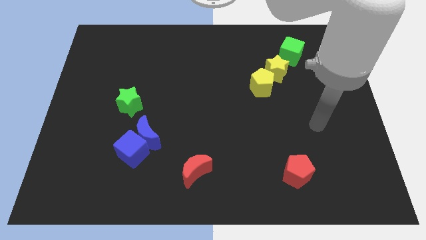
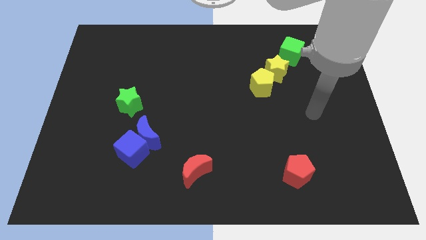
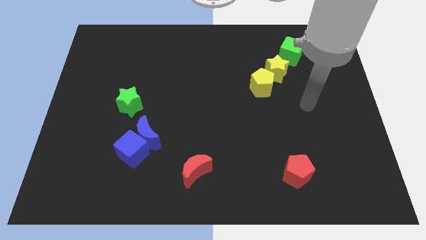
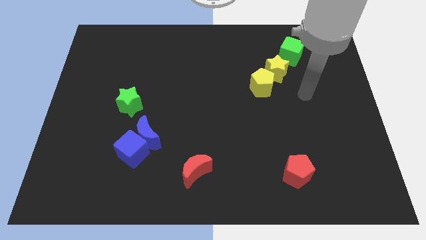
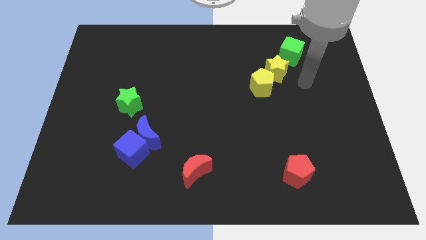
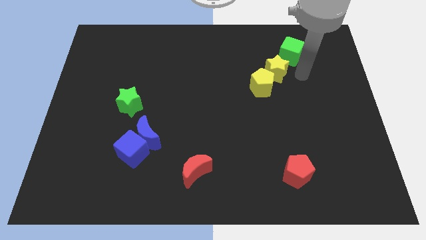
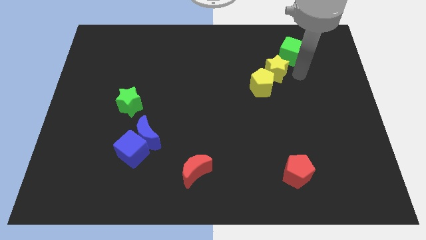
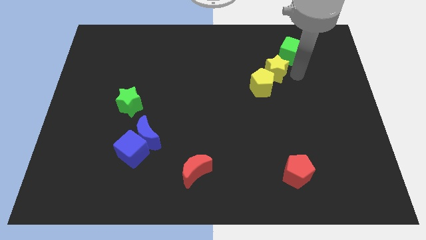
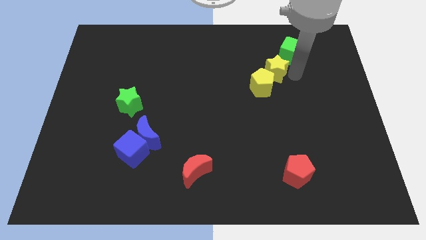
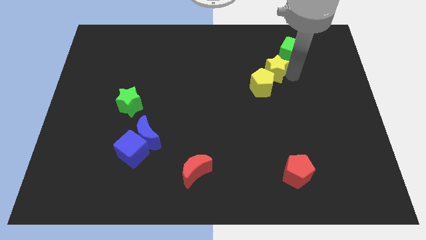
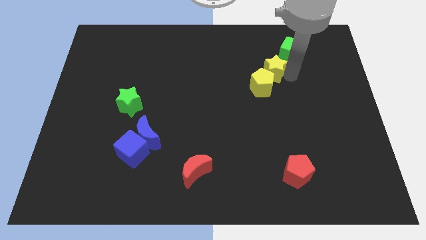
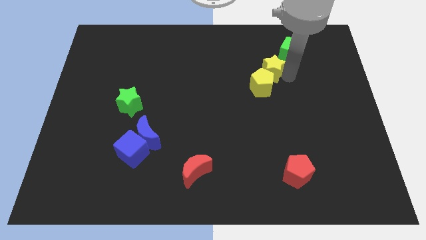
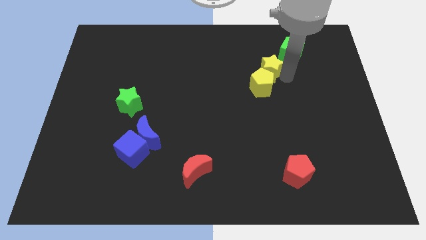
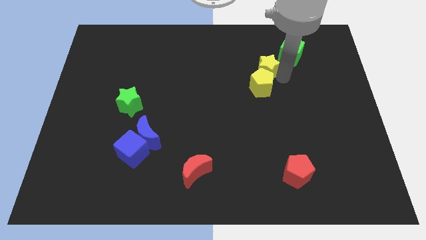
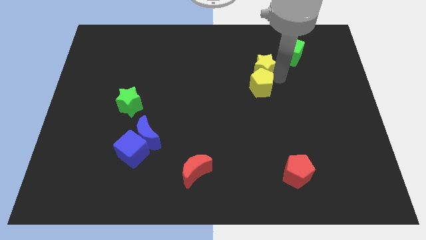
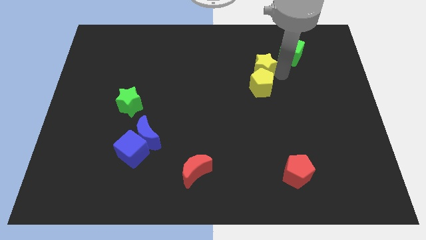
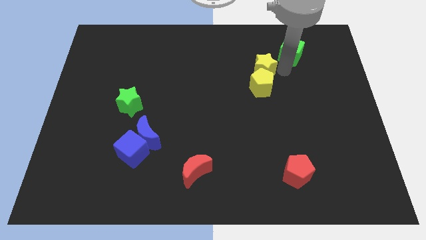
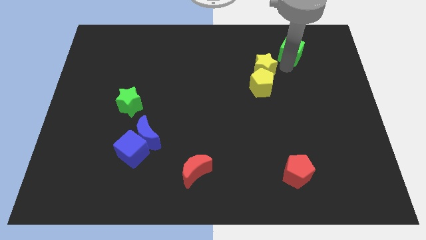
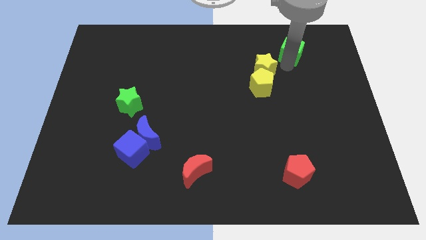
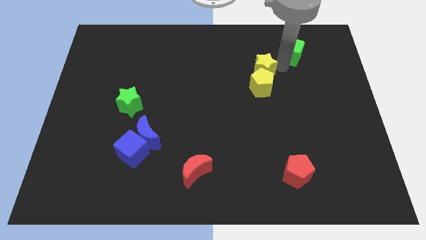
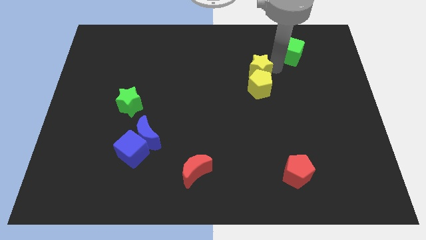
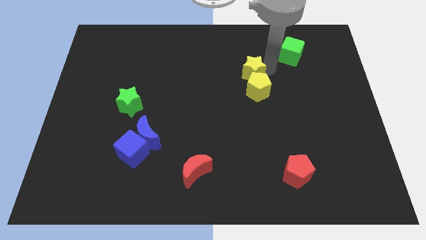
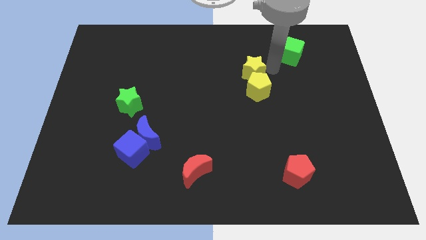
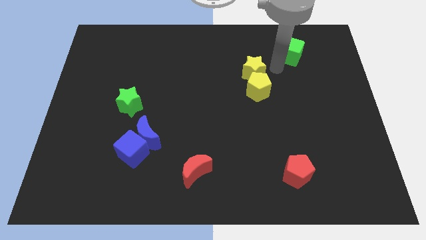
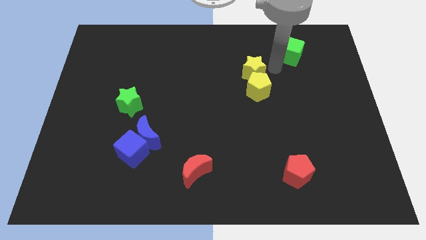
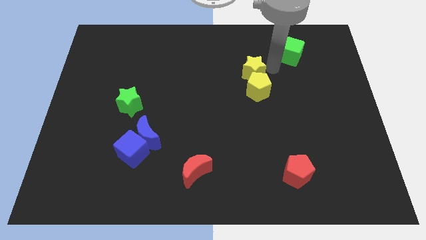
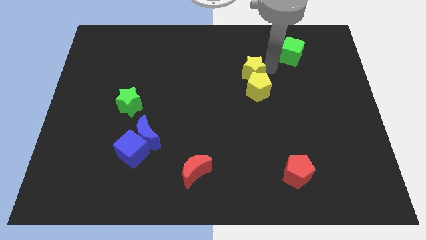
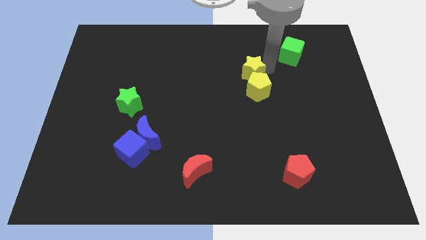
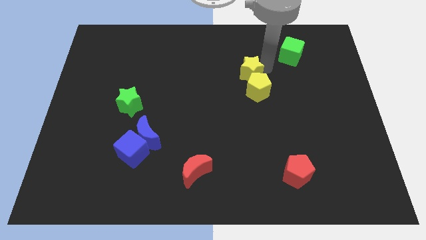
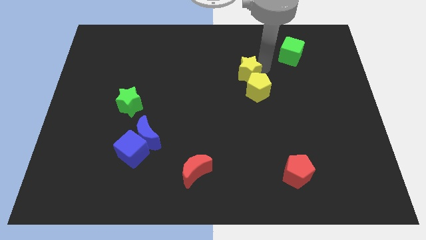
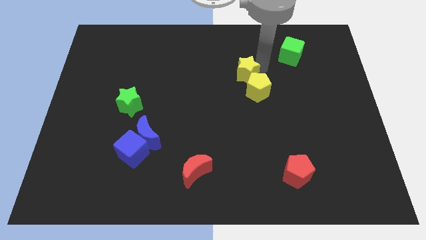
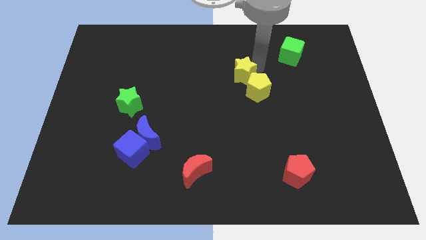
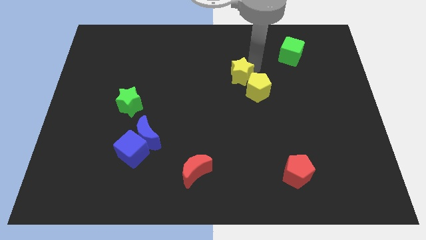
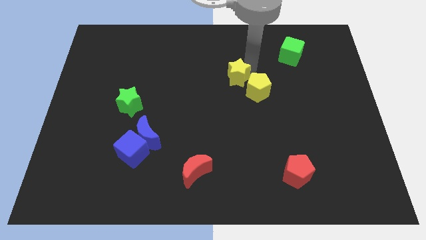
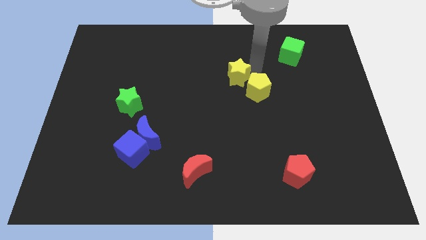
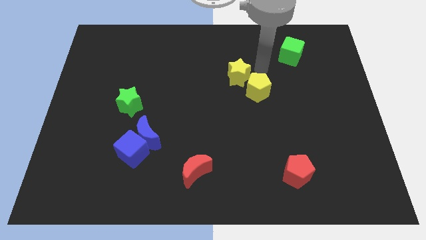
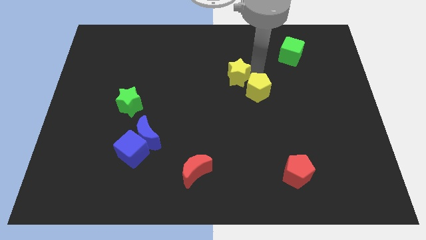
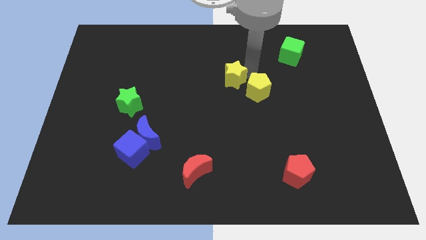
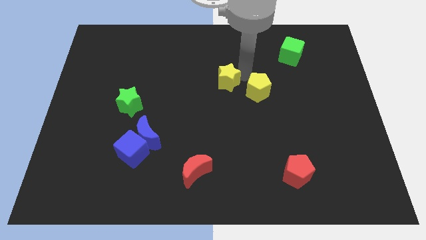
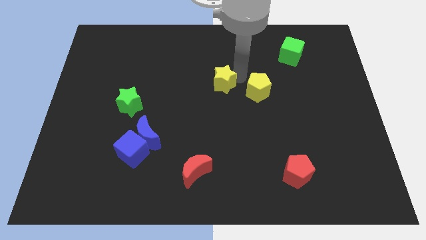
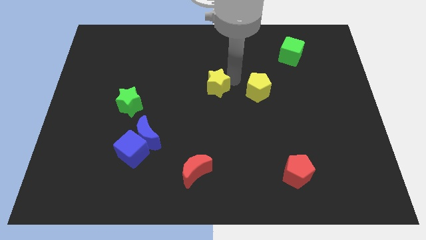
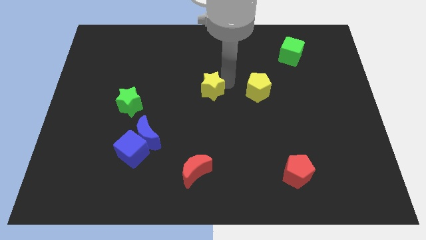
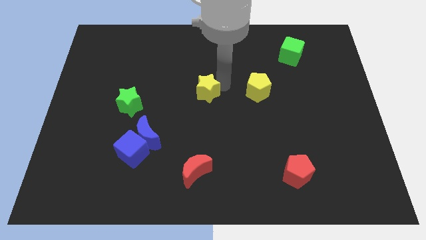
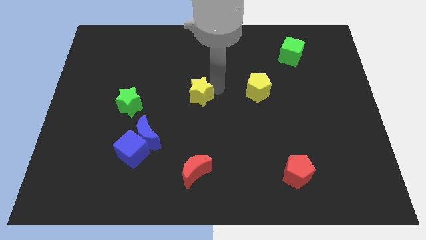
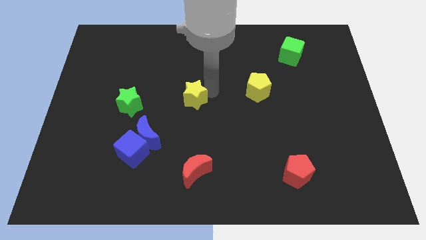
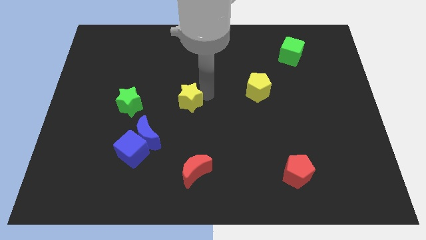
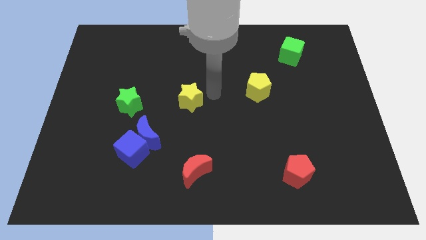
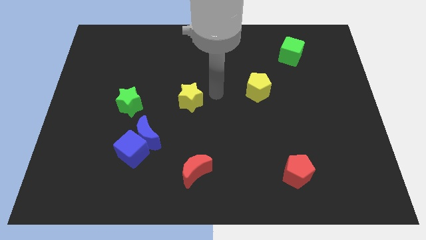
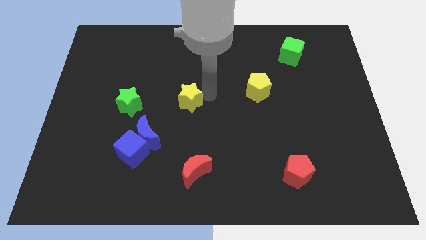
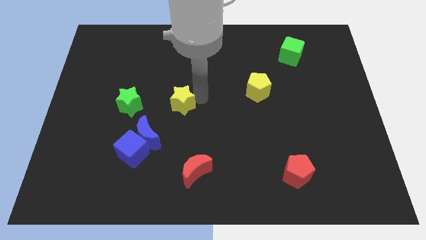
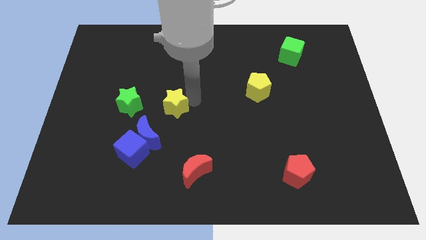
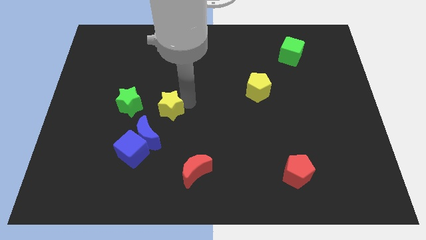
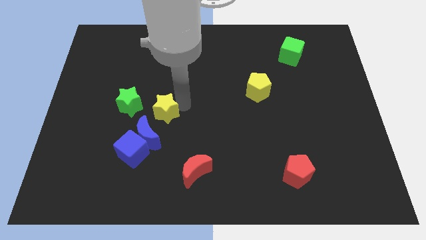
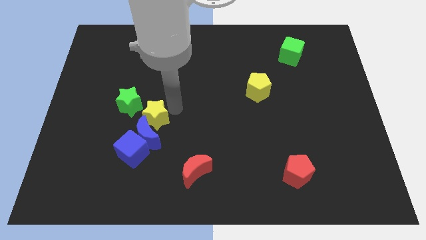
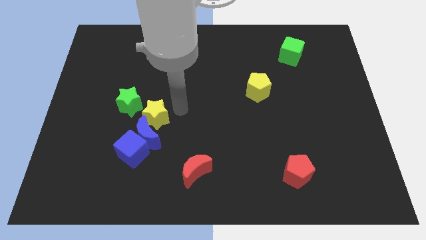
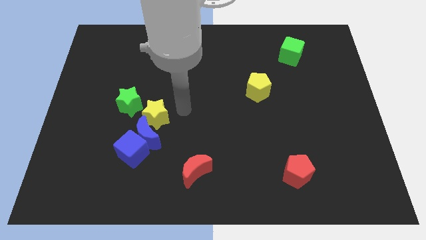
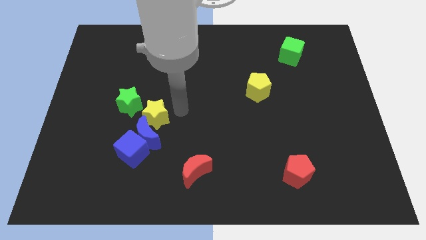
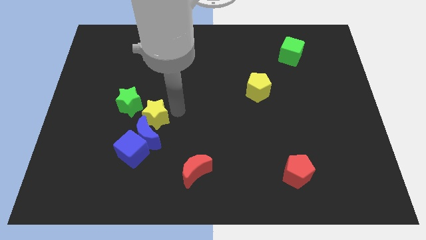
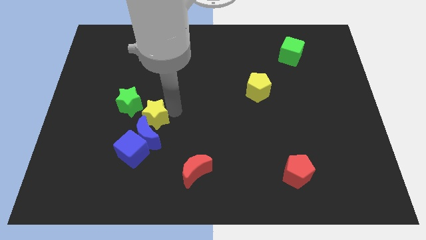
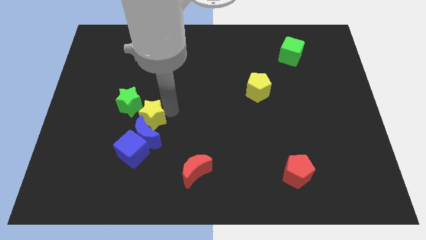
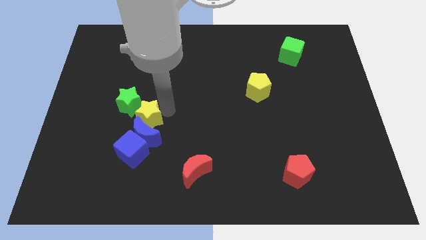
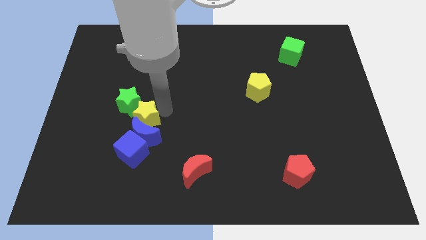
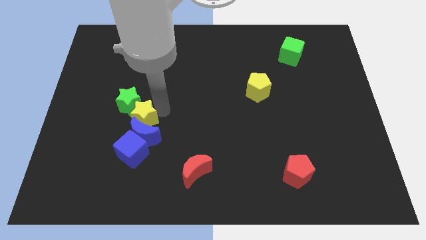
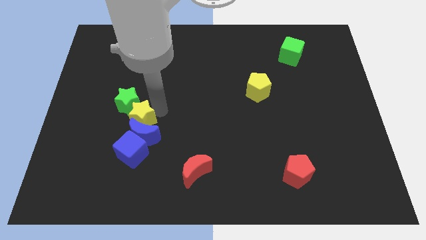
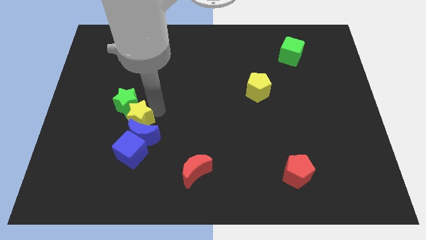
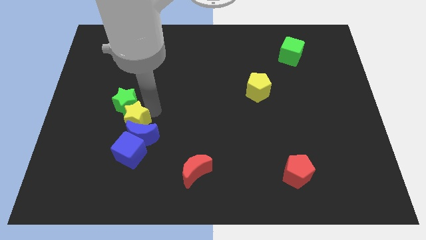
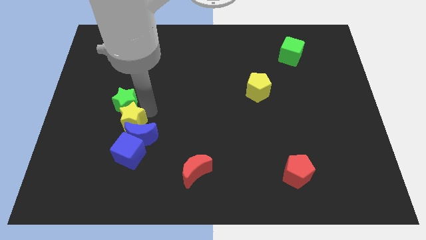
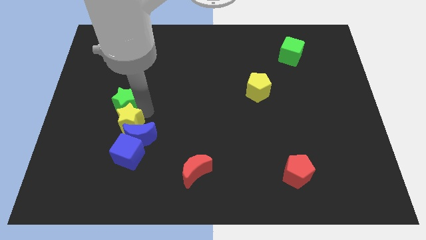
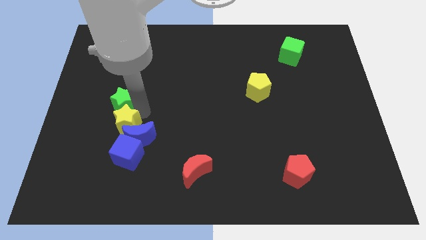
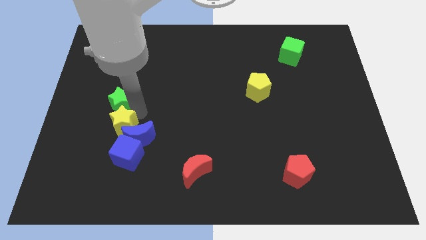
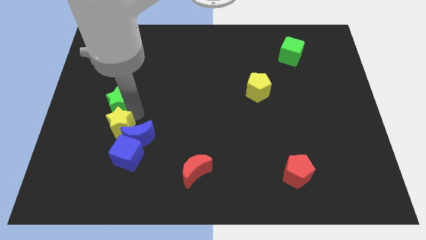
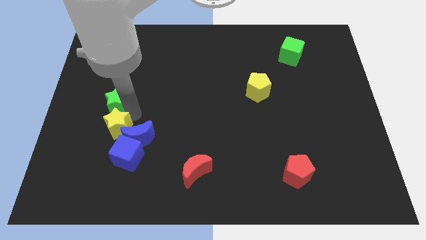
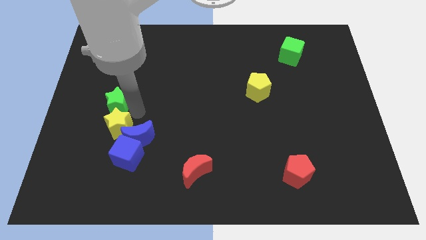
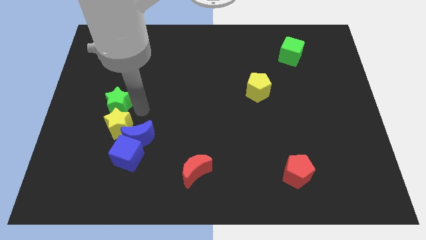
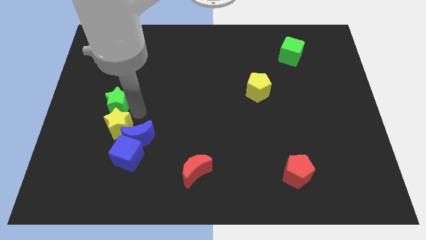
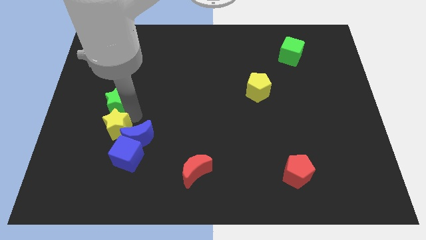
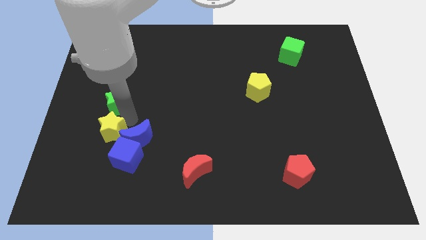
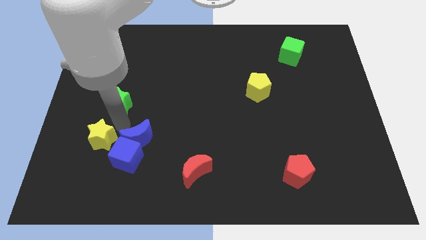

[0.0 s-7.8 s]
move the yellow star left of the blue cube
